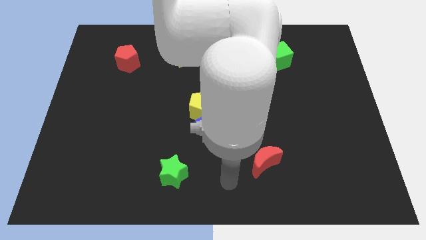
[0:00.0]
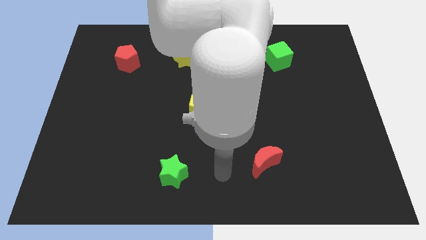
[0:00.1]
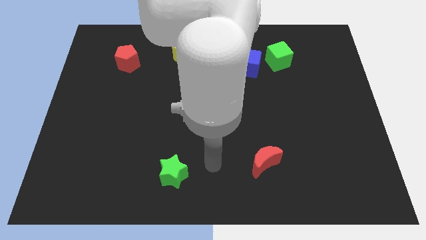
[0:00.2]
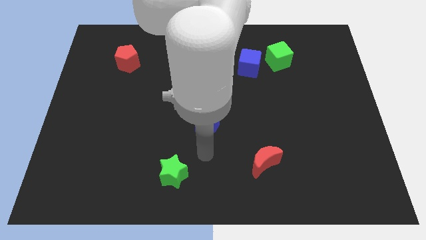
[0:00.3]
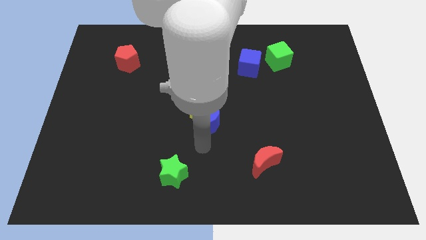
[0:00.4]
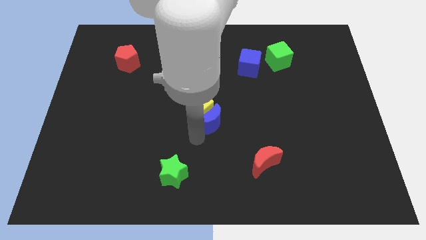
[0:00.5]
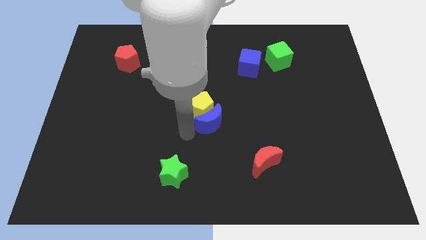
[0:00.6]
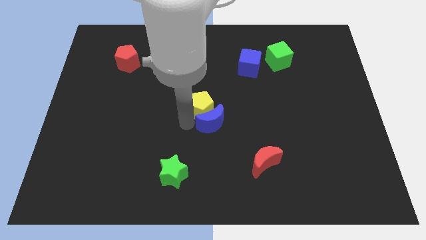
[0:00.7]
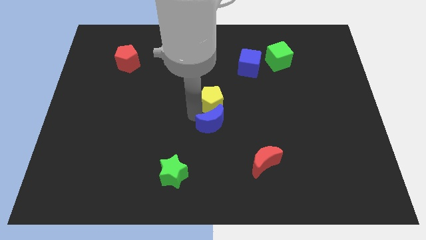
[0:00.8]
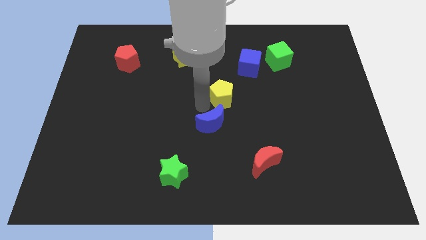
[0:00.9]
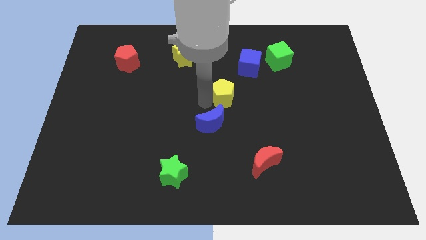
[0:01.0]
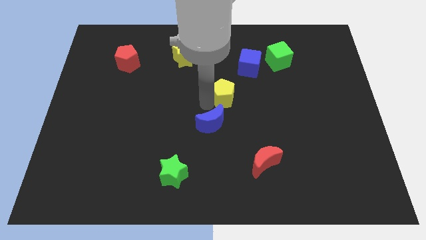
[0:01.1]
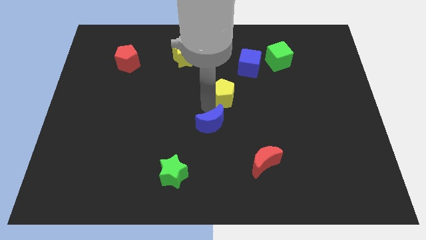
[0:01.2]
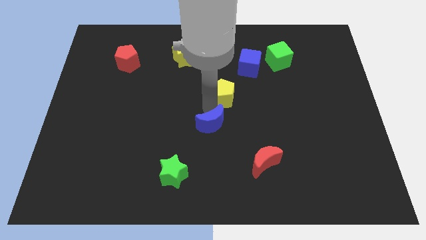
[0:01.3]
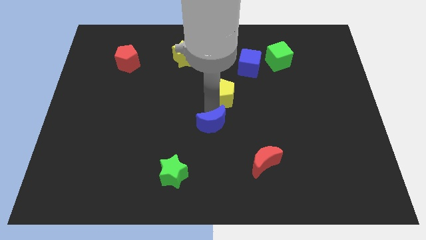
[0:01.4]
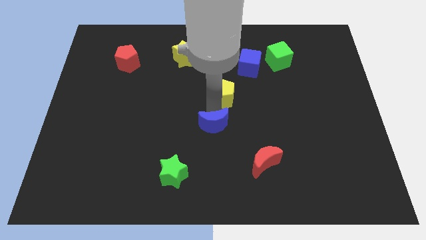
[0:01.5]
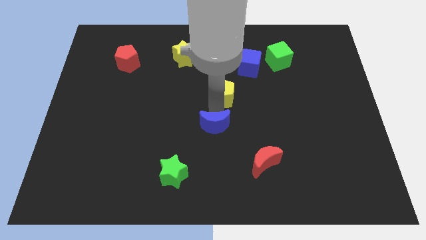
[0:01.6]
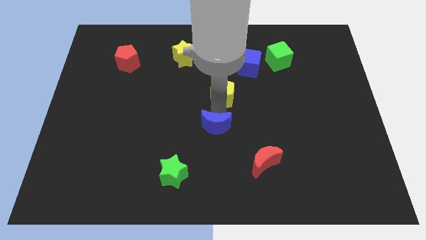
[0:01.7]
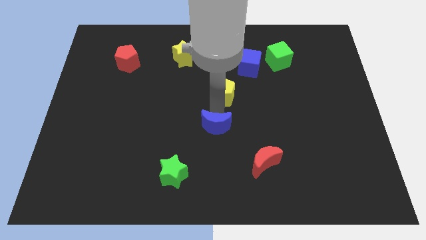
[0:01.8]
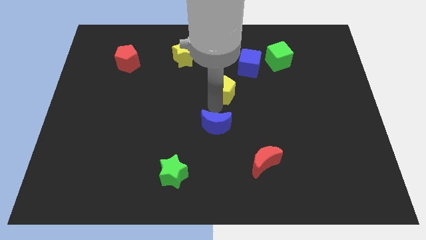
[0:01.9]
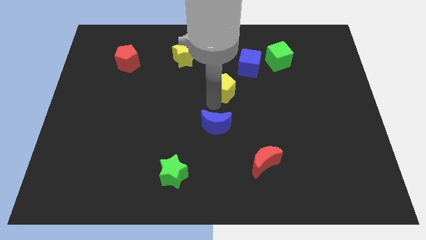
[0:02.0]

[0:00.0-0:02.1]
pull the blue moon apart from the yellow pentagon

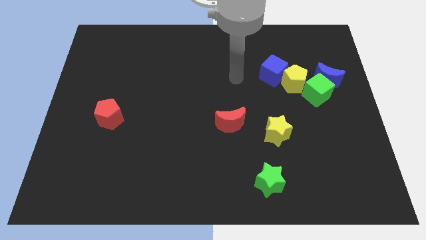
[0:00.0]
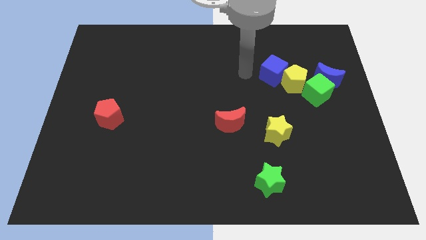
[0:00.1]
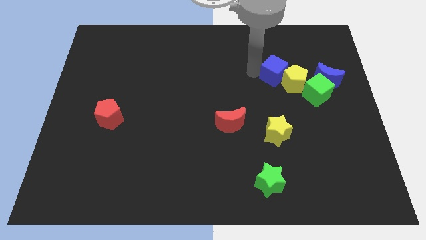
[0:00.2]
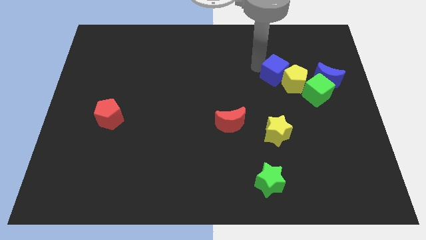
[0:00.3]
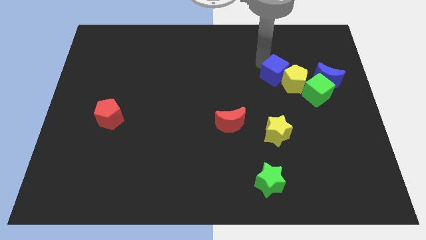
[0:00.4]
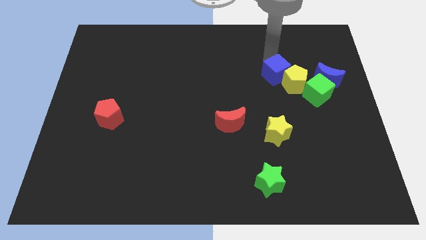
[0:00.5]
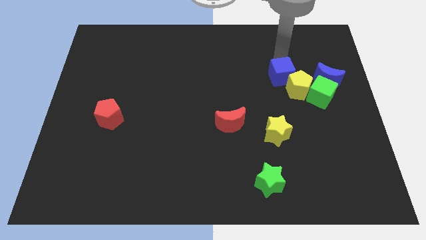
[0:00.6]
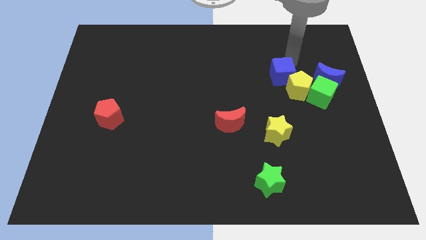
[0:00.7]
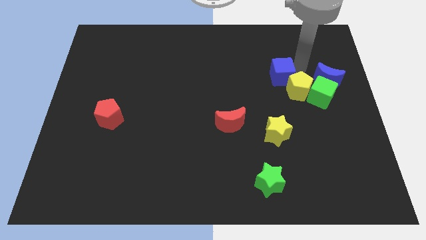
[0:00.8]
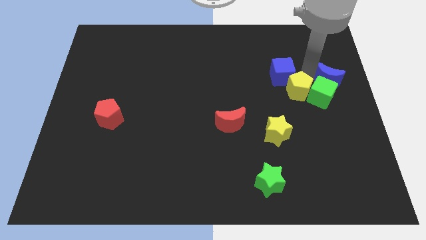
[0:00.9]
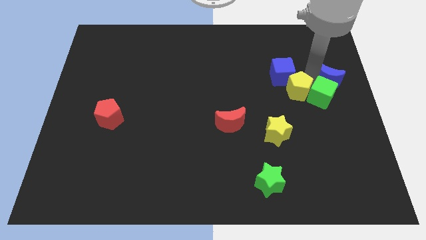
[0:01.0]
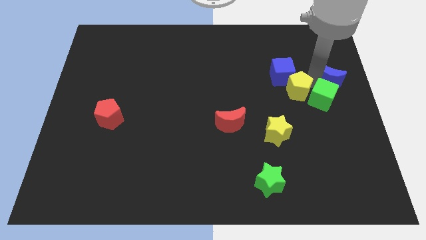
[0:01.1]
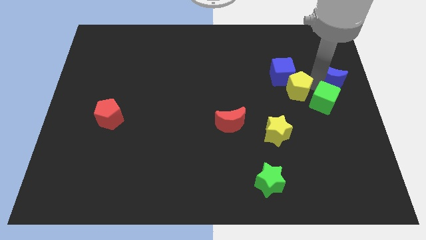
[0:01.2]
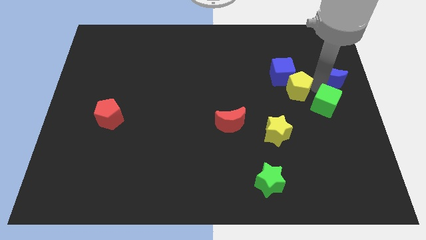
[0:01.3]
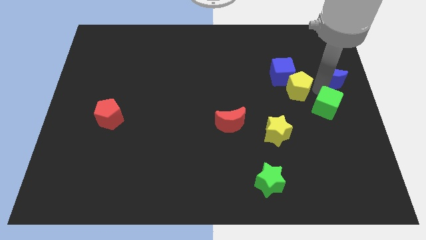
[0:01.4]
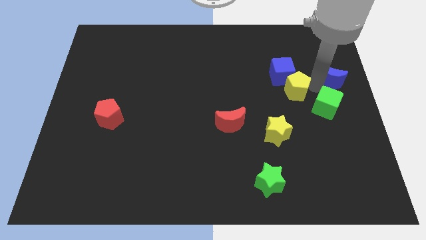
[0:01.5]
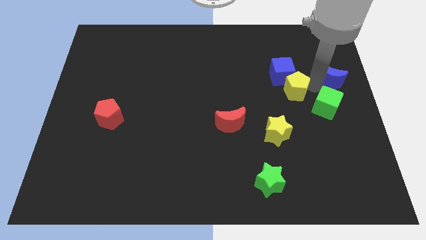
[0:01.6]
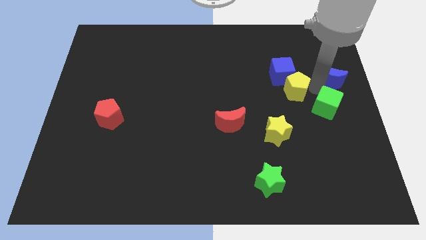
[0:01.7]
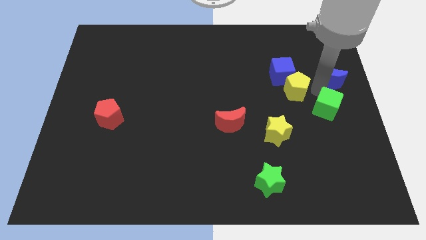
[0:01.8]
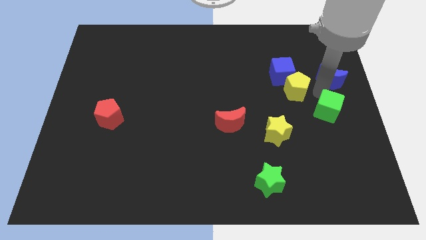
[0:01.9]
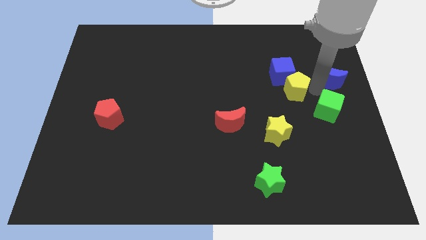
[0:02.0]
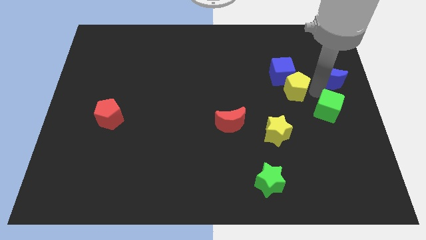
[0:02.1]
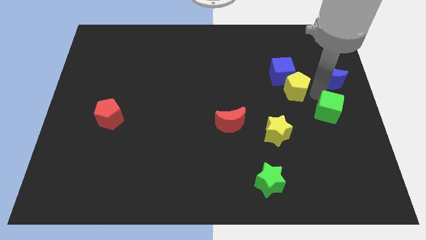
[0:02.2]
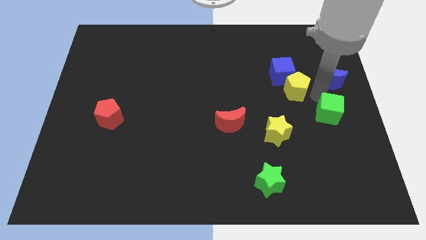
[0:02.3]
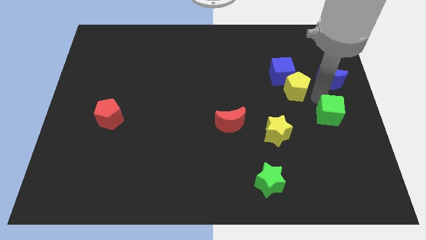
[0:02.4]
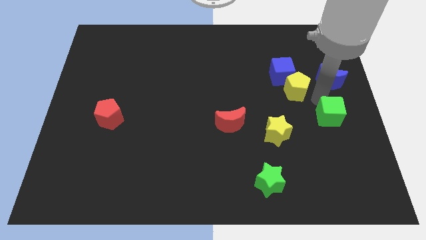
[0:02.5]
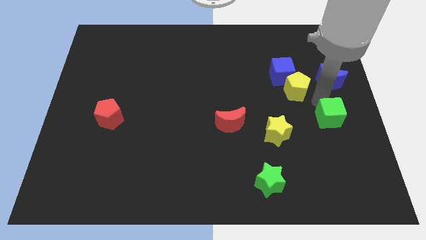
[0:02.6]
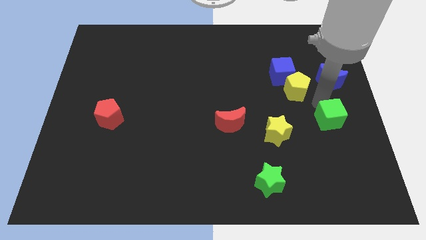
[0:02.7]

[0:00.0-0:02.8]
pull the green cube apart from the blue moon and yellow pentagon

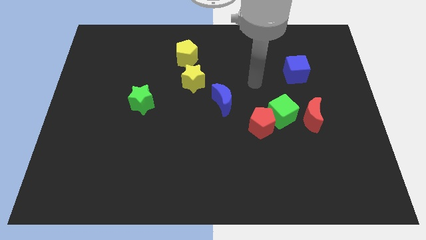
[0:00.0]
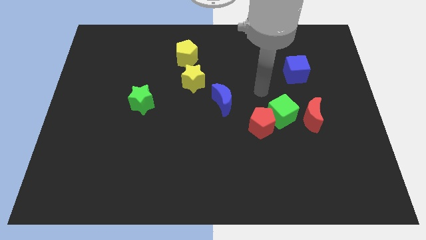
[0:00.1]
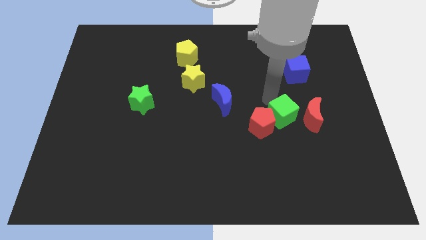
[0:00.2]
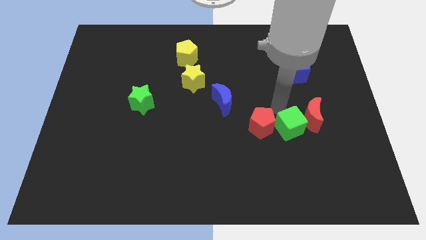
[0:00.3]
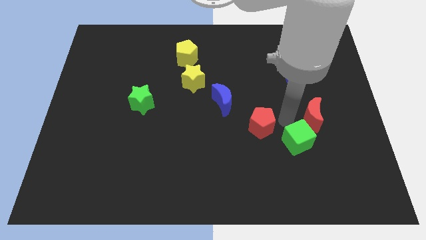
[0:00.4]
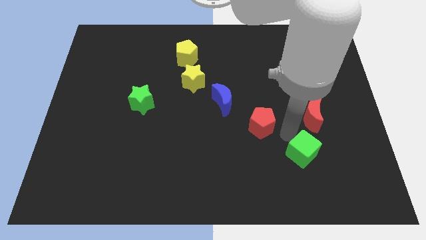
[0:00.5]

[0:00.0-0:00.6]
move the red pentagon away from the green cube

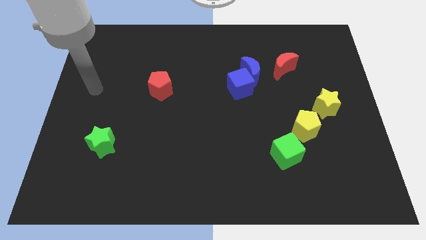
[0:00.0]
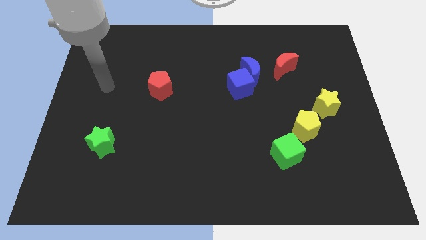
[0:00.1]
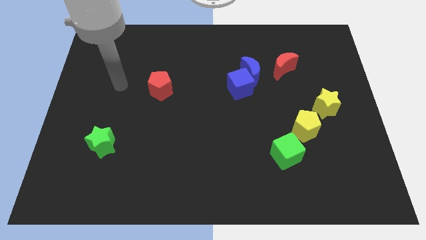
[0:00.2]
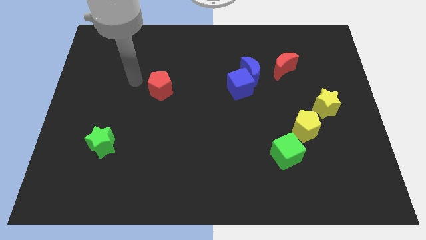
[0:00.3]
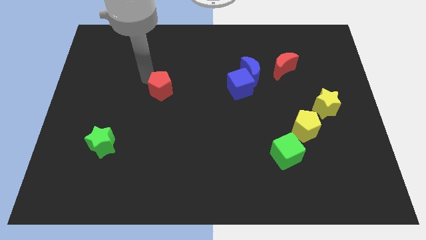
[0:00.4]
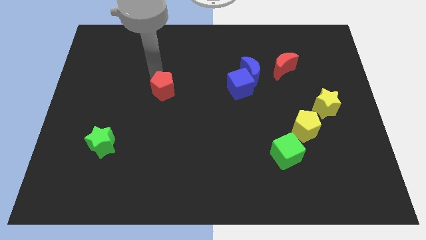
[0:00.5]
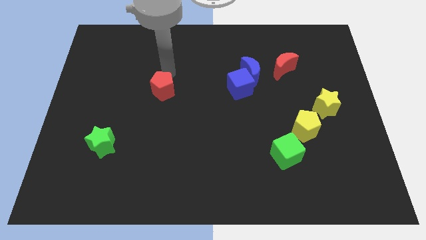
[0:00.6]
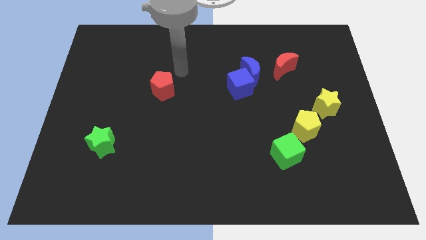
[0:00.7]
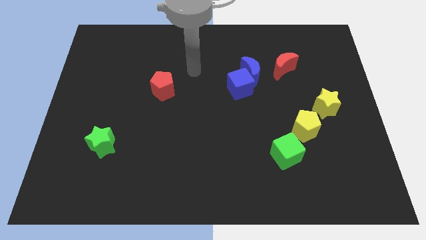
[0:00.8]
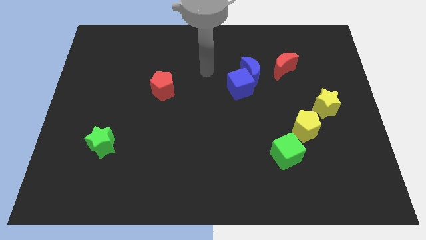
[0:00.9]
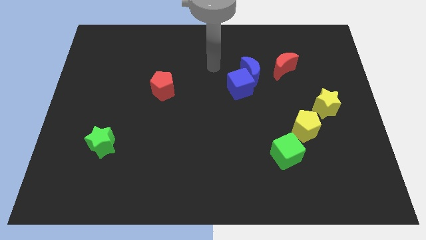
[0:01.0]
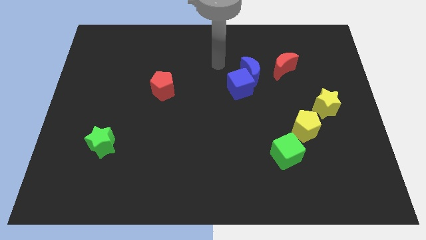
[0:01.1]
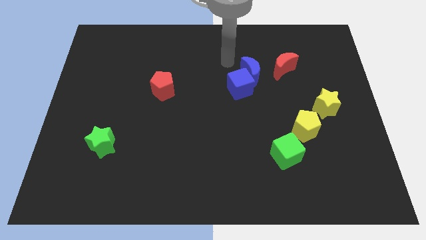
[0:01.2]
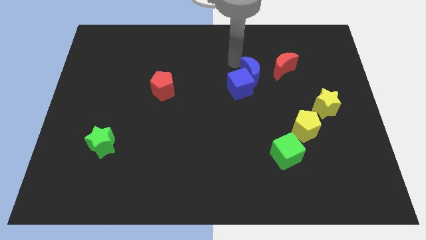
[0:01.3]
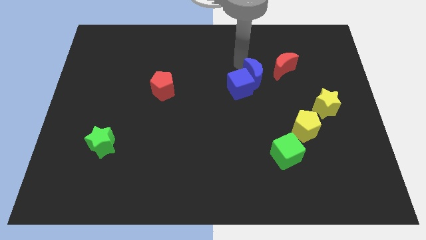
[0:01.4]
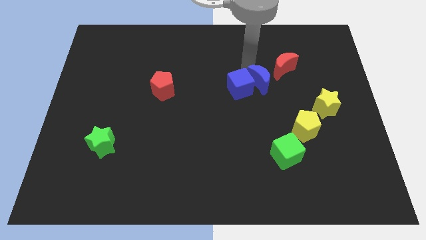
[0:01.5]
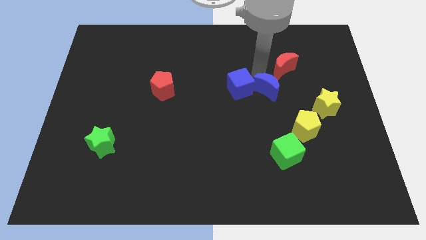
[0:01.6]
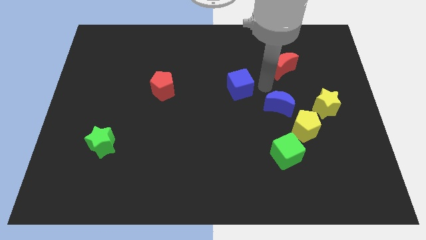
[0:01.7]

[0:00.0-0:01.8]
pull the blue cube apart from the blue moon

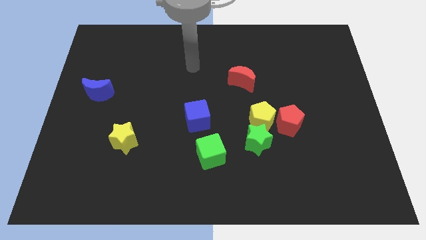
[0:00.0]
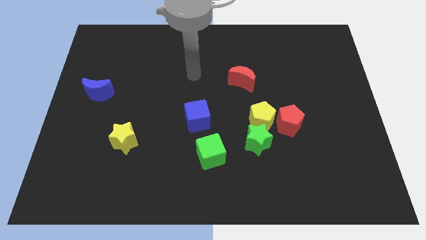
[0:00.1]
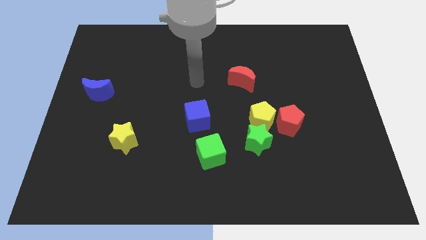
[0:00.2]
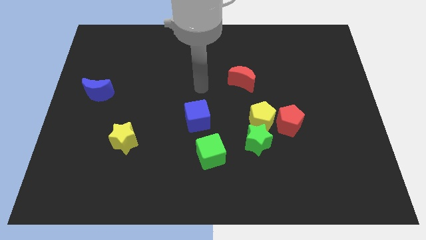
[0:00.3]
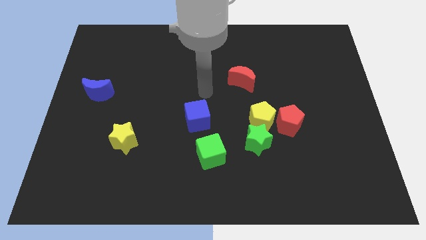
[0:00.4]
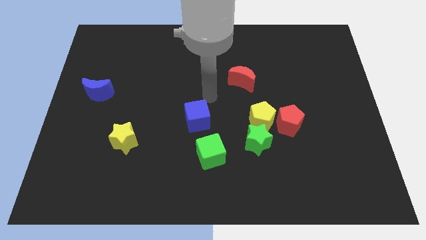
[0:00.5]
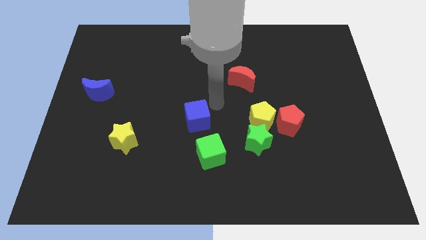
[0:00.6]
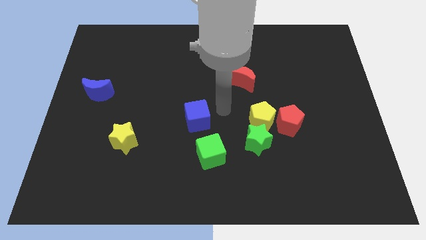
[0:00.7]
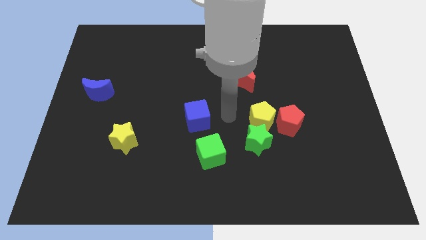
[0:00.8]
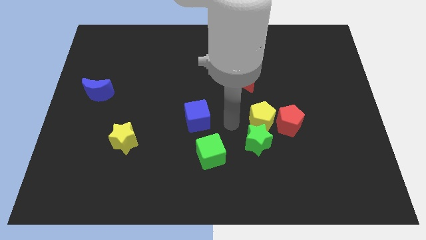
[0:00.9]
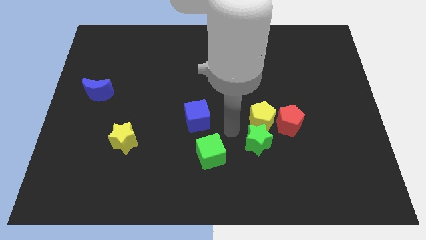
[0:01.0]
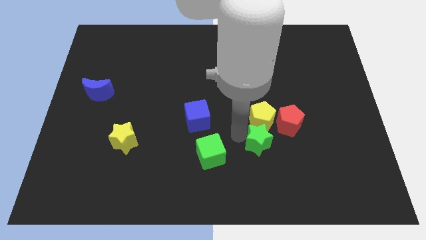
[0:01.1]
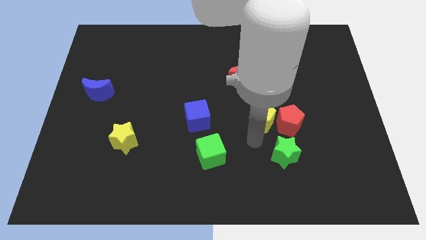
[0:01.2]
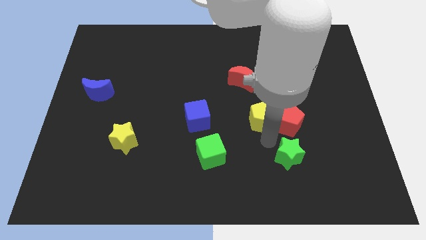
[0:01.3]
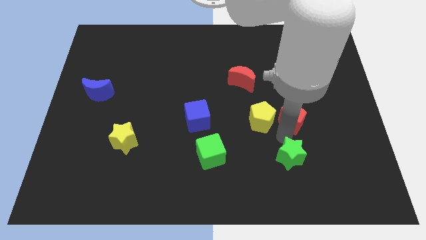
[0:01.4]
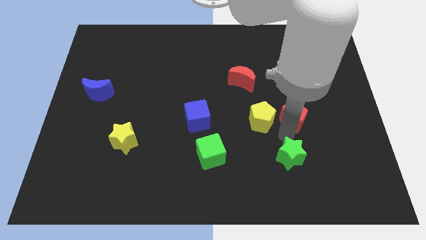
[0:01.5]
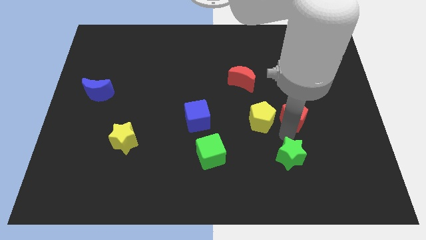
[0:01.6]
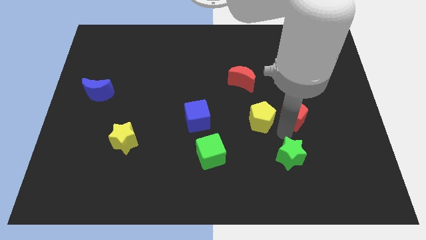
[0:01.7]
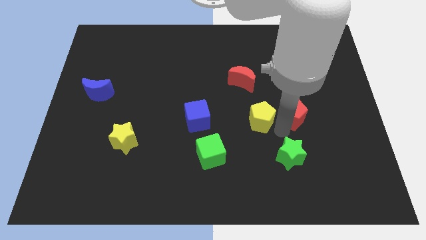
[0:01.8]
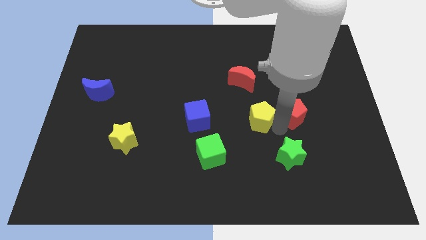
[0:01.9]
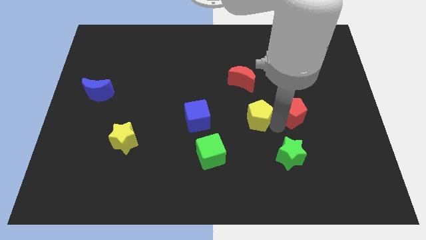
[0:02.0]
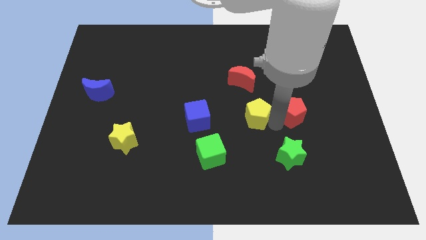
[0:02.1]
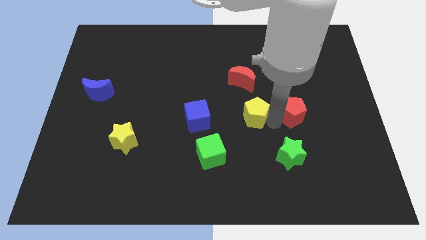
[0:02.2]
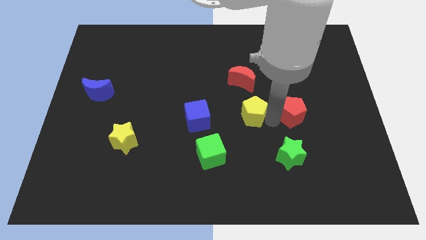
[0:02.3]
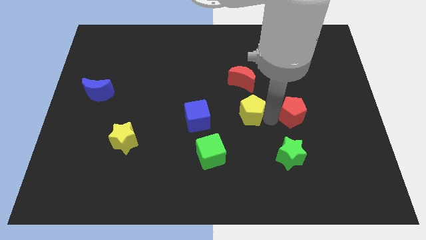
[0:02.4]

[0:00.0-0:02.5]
separate the yellow pentagon from the green star and red pentagon
